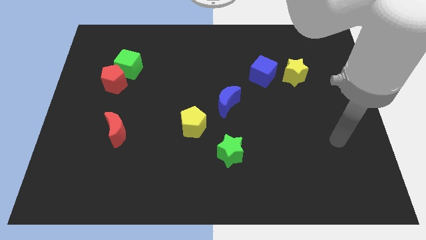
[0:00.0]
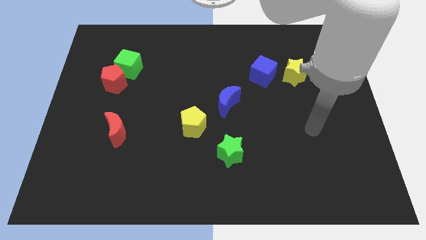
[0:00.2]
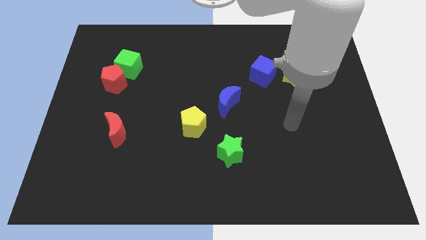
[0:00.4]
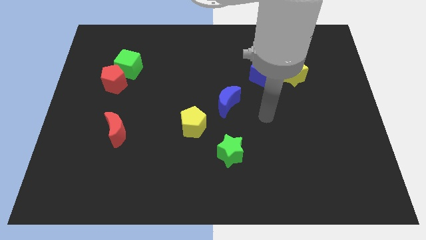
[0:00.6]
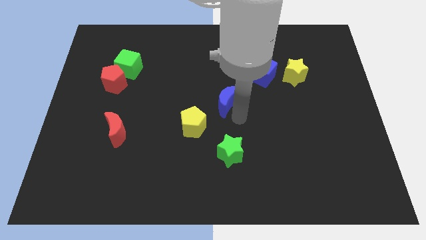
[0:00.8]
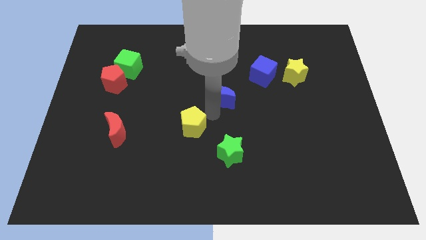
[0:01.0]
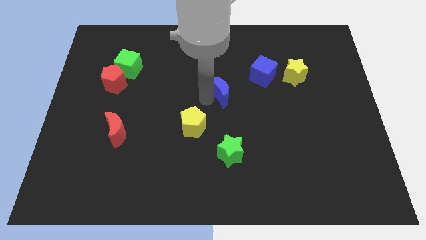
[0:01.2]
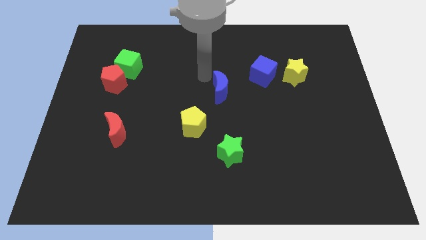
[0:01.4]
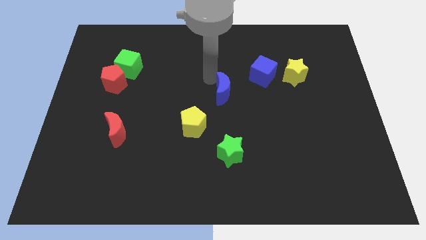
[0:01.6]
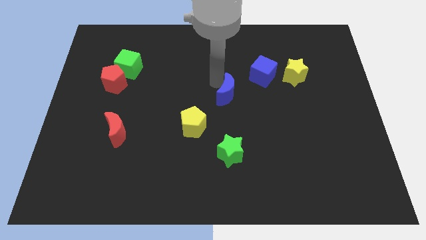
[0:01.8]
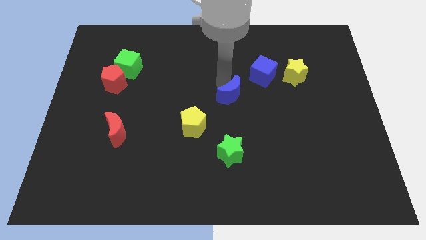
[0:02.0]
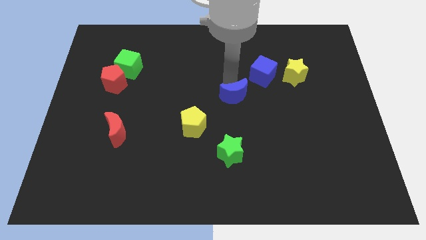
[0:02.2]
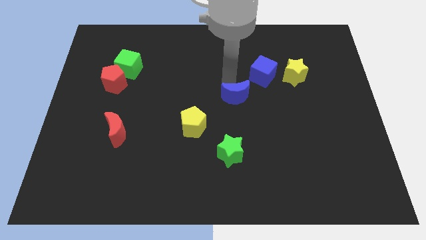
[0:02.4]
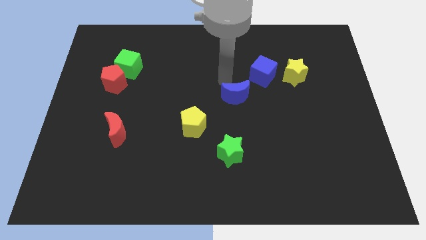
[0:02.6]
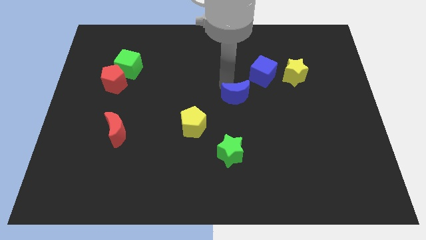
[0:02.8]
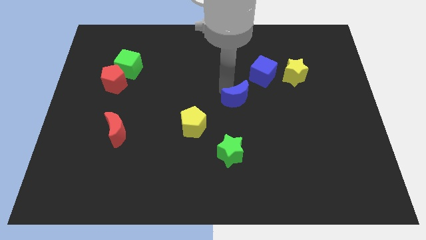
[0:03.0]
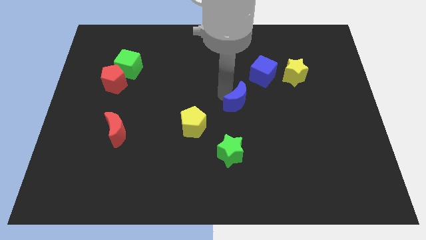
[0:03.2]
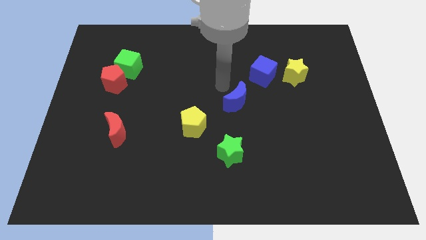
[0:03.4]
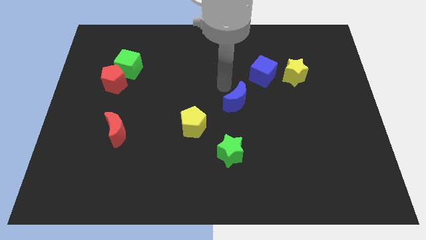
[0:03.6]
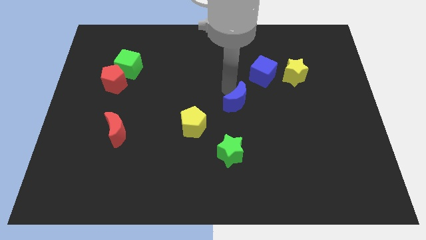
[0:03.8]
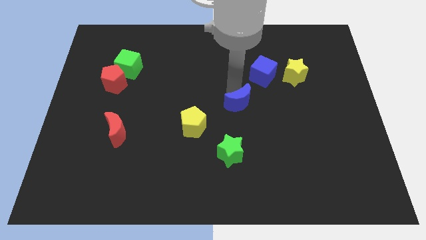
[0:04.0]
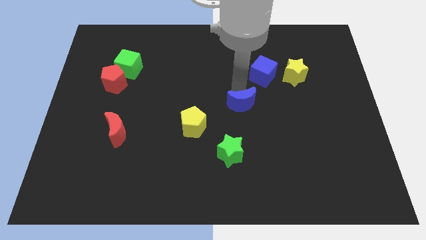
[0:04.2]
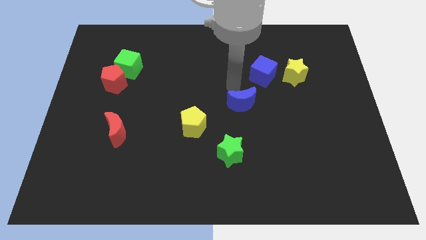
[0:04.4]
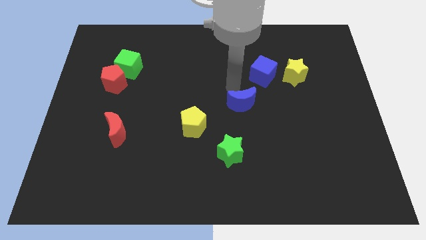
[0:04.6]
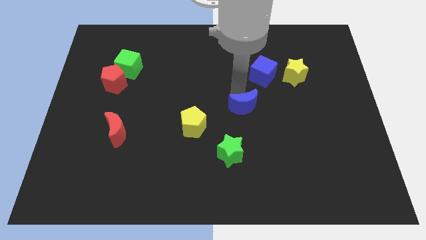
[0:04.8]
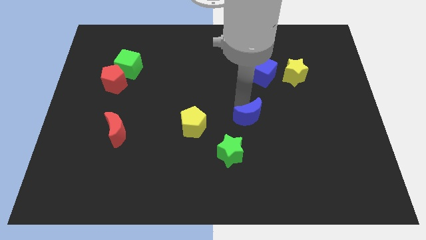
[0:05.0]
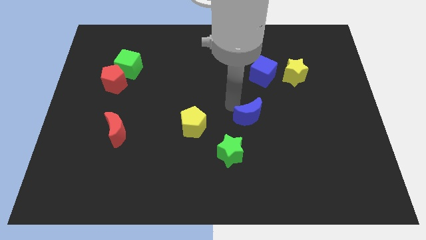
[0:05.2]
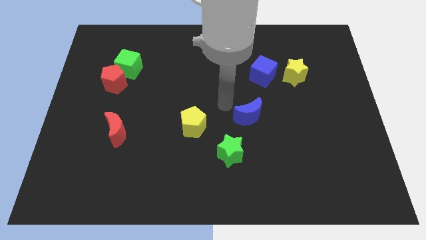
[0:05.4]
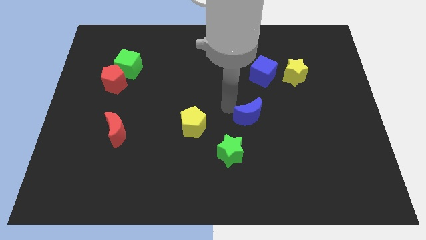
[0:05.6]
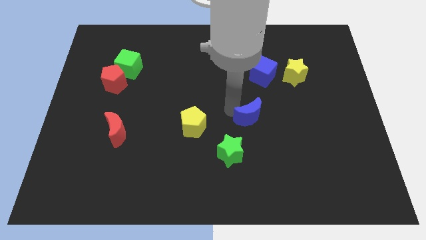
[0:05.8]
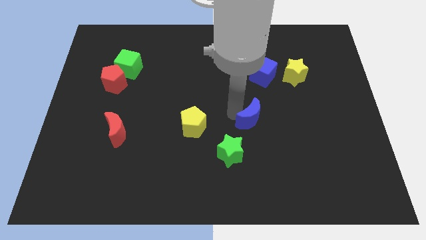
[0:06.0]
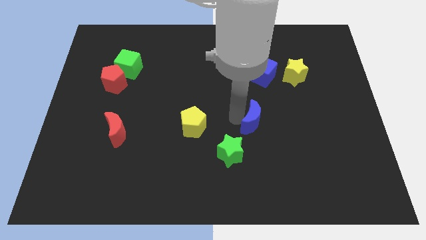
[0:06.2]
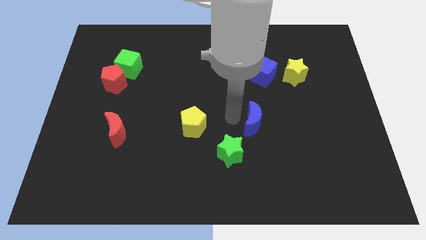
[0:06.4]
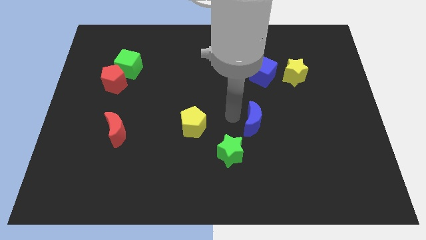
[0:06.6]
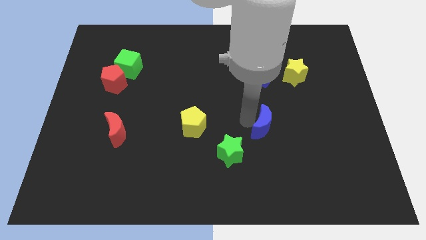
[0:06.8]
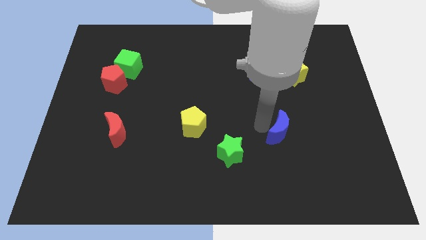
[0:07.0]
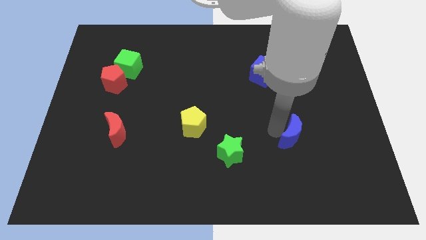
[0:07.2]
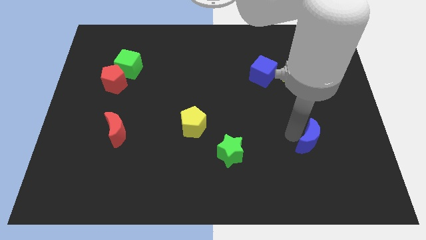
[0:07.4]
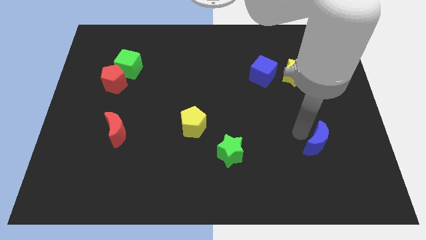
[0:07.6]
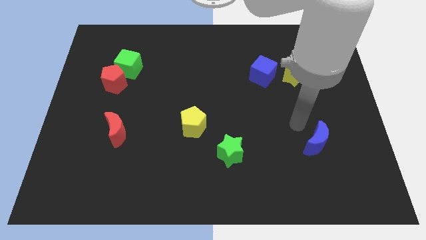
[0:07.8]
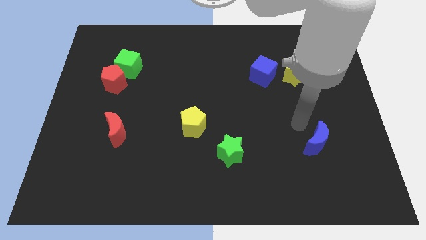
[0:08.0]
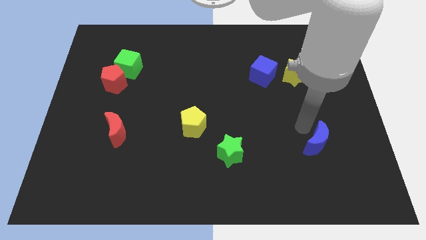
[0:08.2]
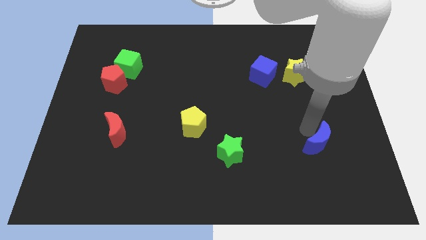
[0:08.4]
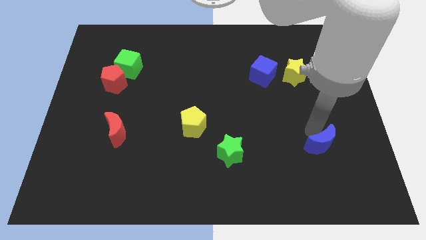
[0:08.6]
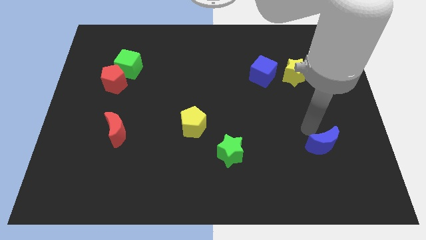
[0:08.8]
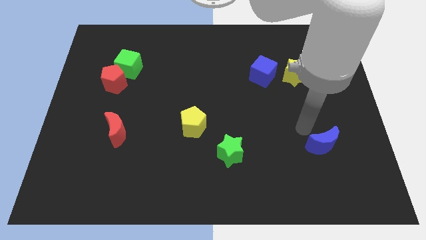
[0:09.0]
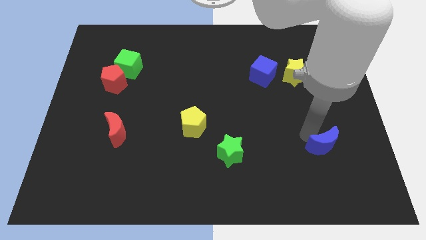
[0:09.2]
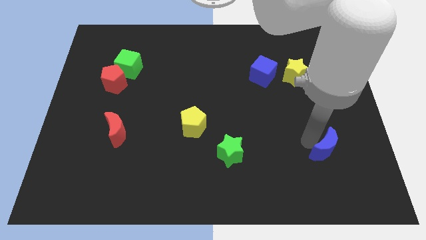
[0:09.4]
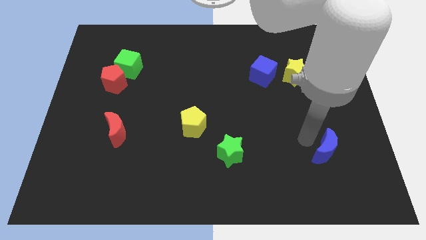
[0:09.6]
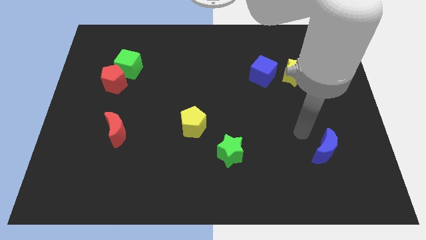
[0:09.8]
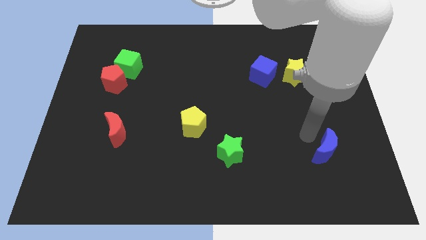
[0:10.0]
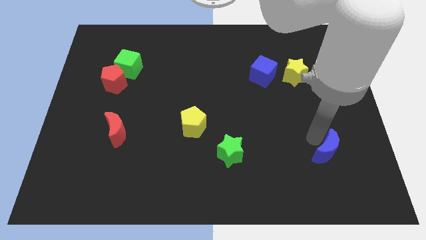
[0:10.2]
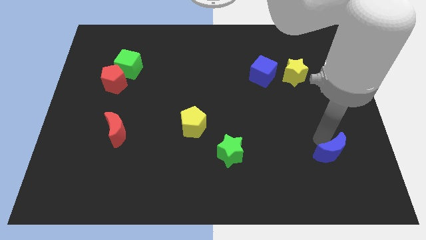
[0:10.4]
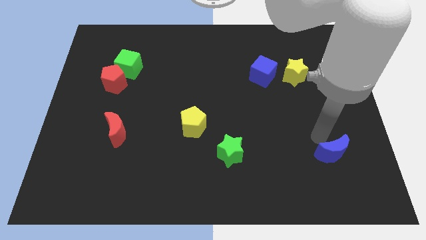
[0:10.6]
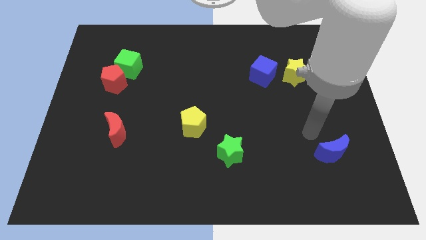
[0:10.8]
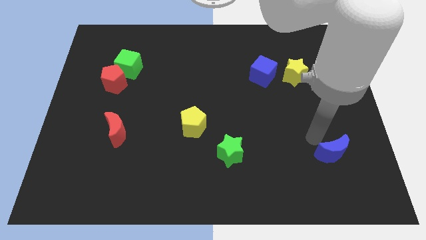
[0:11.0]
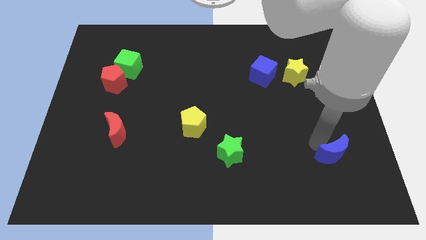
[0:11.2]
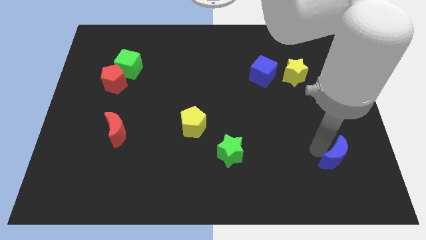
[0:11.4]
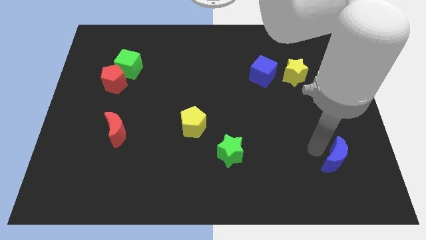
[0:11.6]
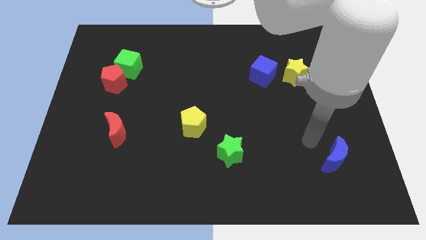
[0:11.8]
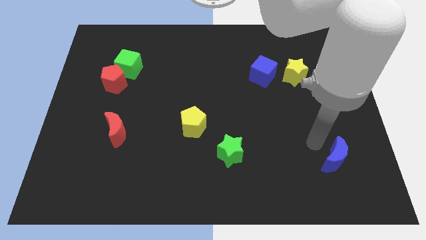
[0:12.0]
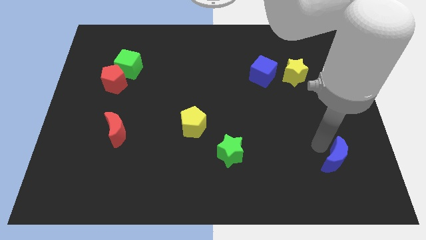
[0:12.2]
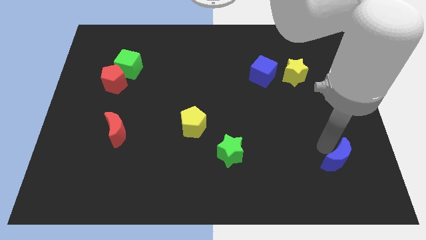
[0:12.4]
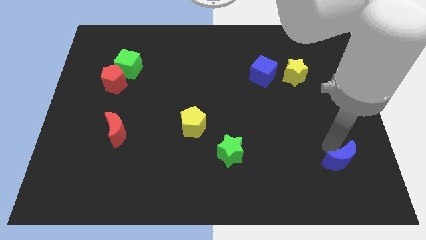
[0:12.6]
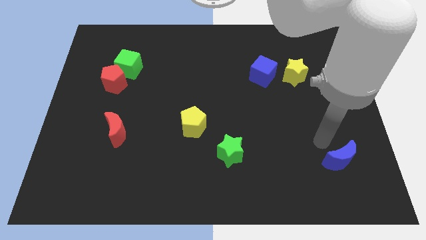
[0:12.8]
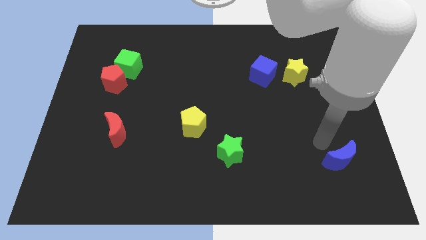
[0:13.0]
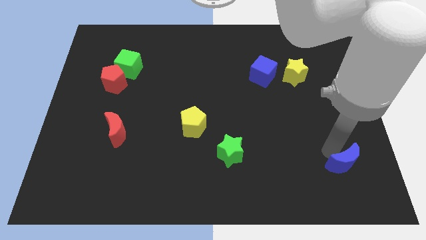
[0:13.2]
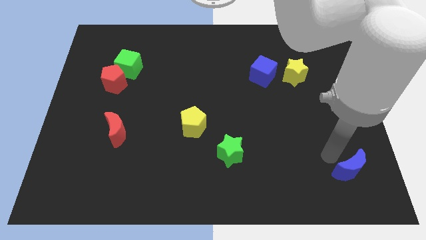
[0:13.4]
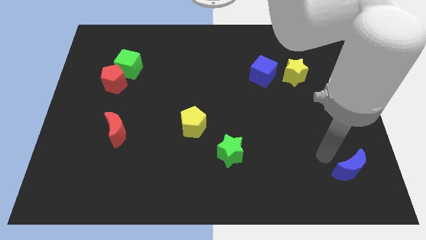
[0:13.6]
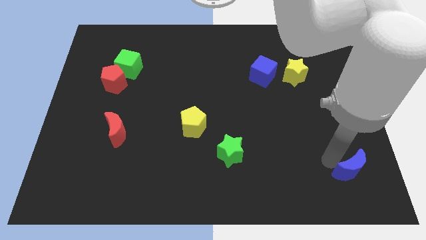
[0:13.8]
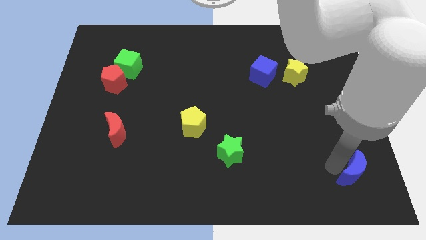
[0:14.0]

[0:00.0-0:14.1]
move the blue moon to the bottom right
